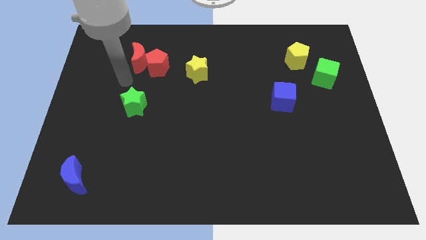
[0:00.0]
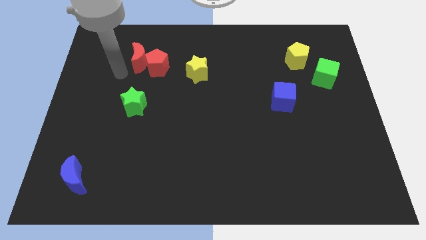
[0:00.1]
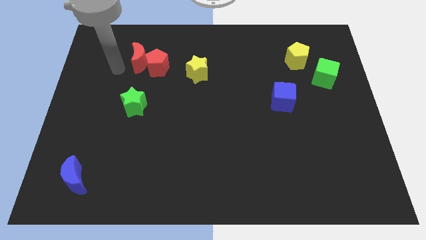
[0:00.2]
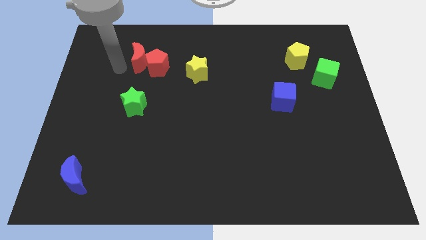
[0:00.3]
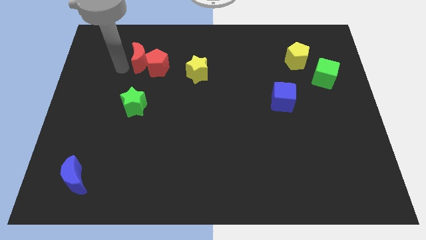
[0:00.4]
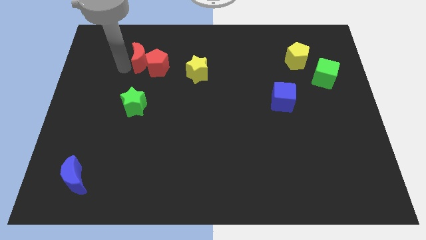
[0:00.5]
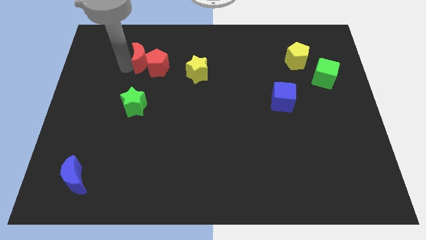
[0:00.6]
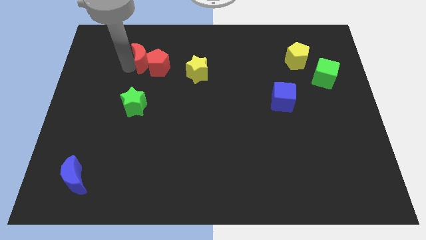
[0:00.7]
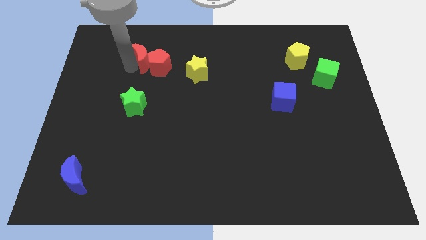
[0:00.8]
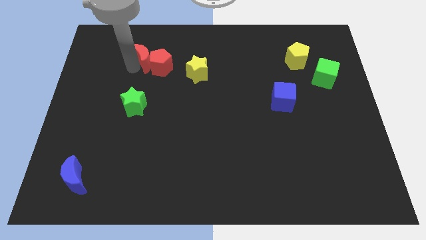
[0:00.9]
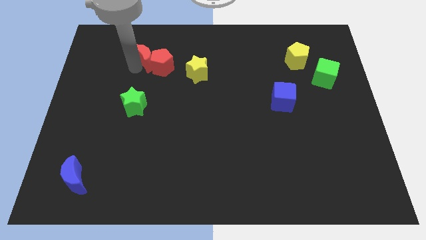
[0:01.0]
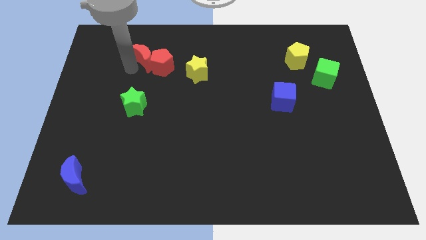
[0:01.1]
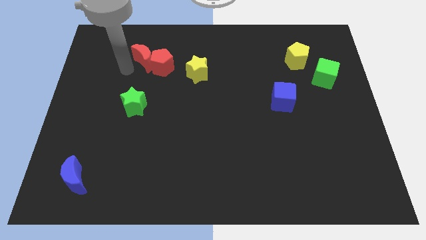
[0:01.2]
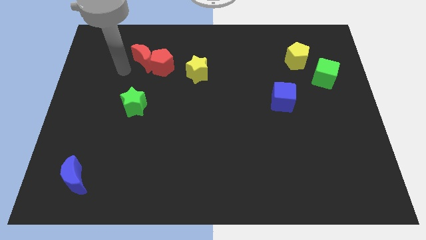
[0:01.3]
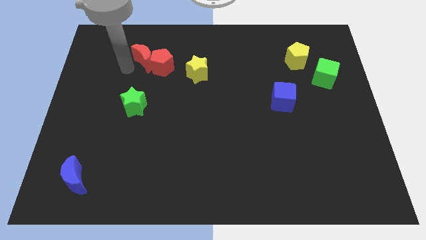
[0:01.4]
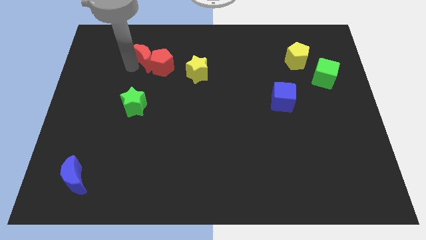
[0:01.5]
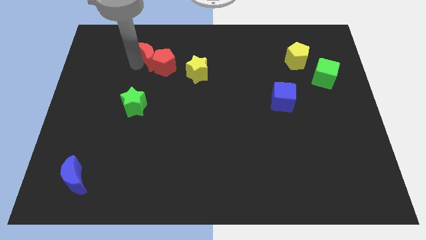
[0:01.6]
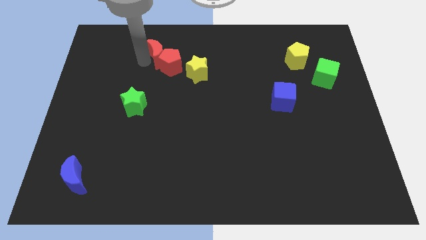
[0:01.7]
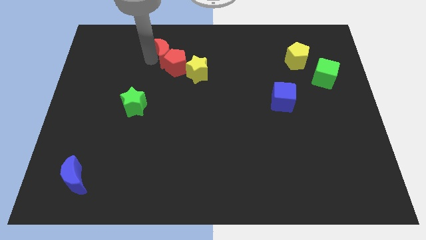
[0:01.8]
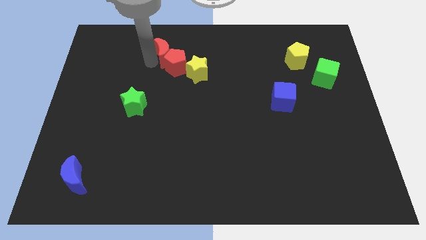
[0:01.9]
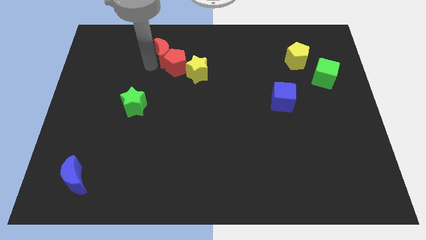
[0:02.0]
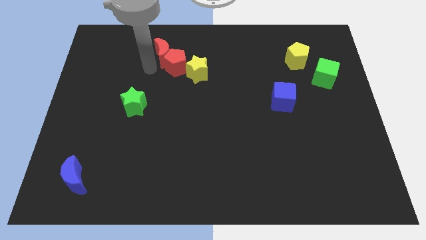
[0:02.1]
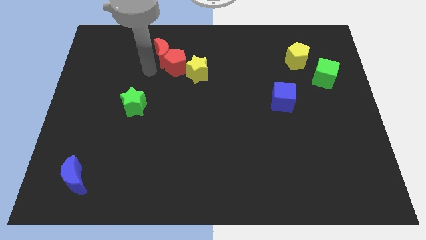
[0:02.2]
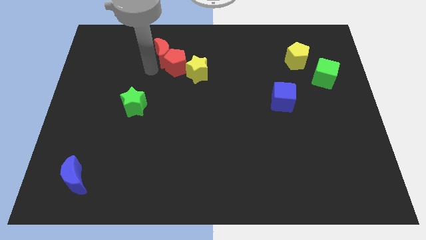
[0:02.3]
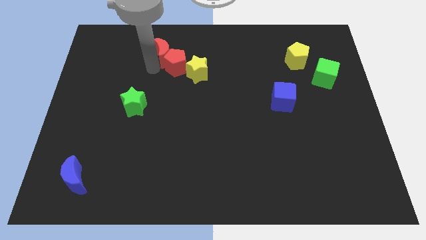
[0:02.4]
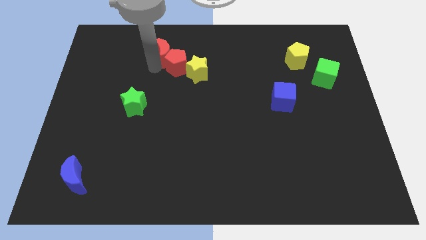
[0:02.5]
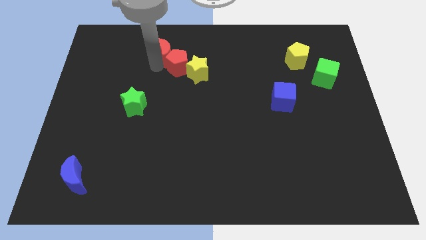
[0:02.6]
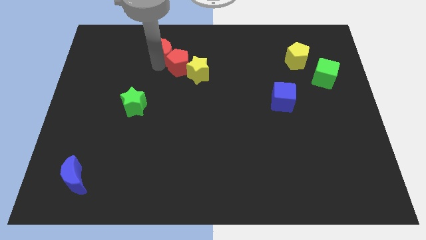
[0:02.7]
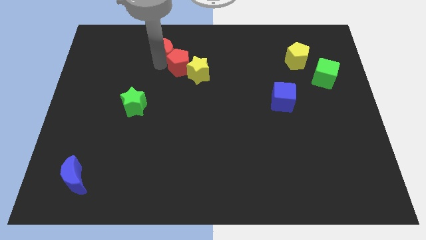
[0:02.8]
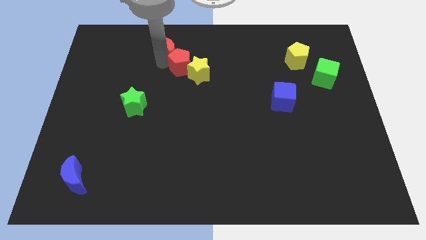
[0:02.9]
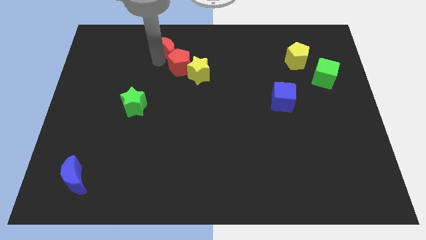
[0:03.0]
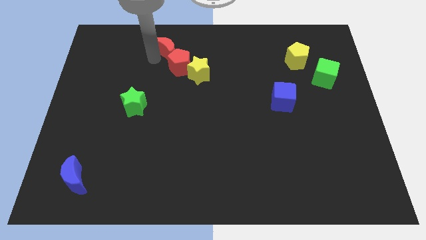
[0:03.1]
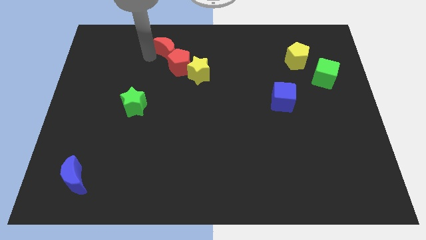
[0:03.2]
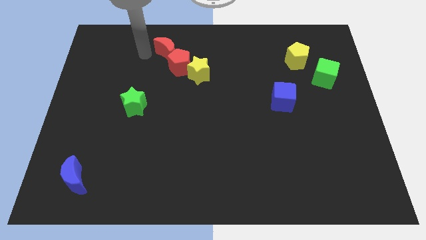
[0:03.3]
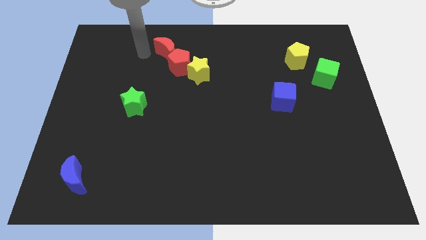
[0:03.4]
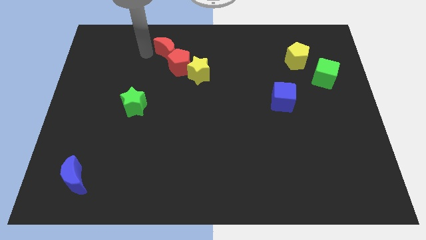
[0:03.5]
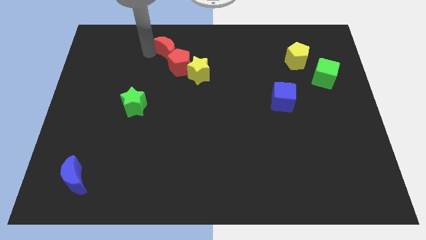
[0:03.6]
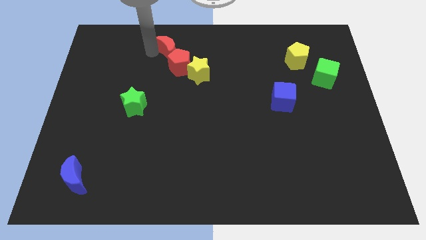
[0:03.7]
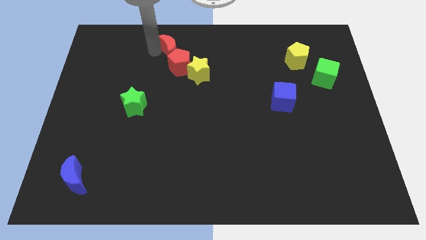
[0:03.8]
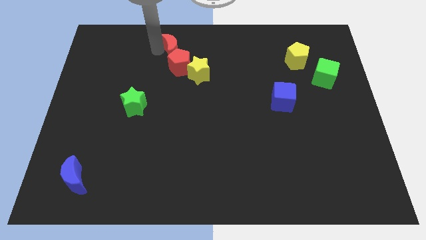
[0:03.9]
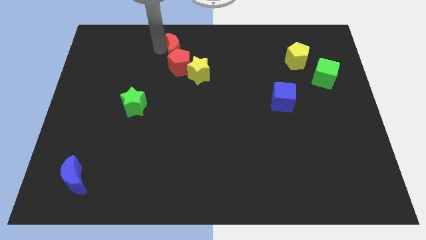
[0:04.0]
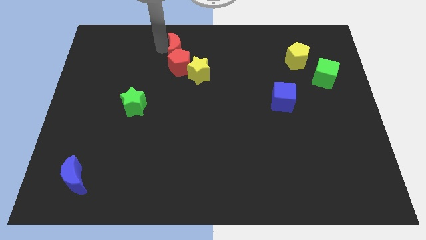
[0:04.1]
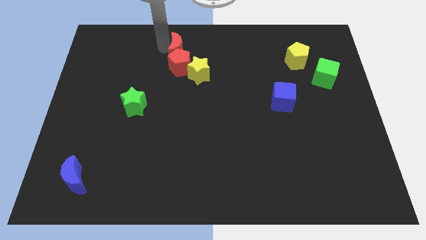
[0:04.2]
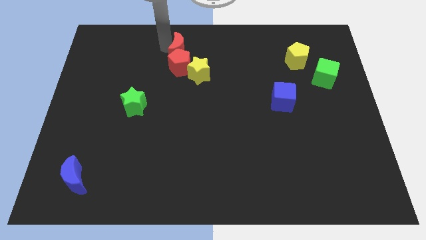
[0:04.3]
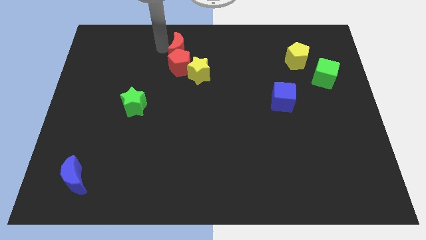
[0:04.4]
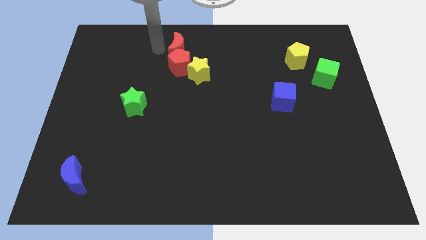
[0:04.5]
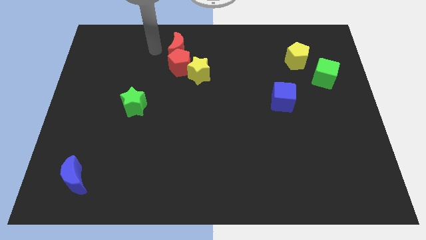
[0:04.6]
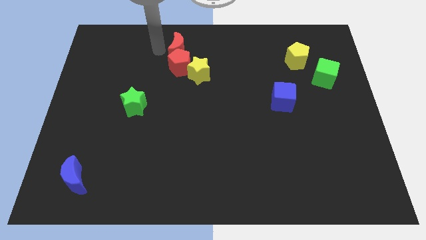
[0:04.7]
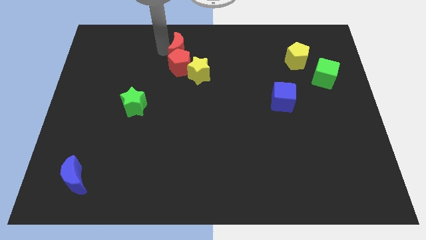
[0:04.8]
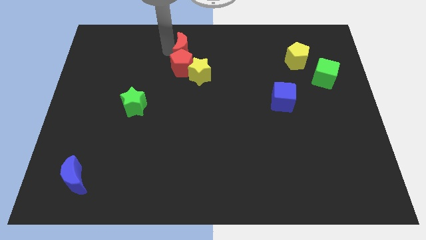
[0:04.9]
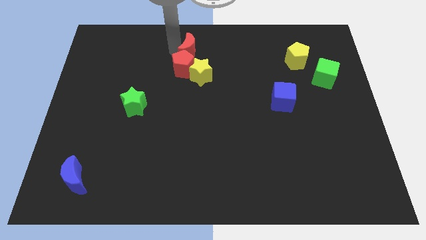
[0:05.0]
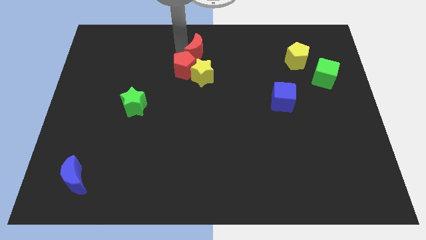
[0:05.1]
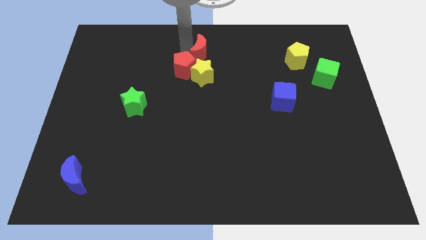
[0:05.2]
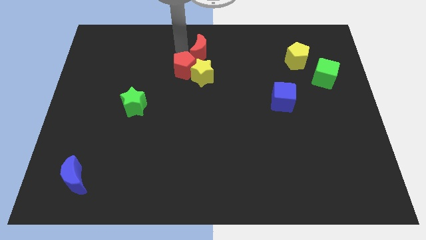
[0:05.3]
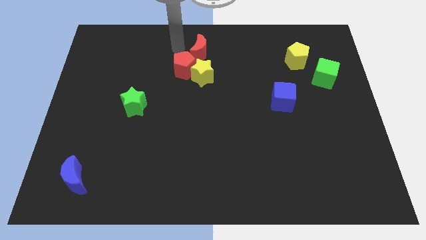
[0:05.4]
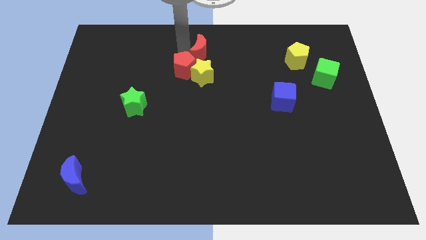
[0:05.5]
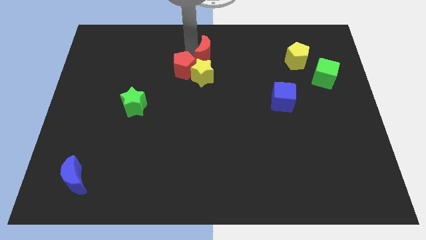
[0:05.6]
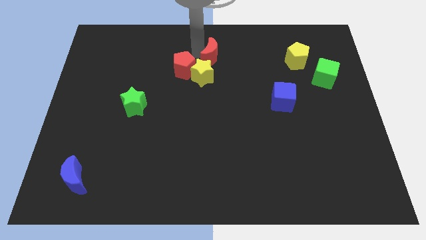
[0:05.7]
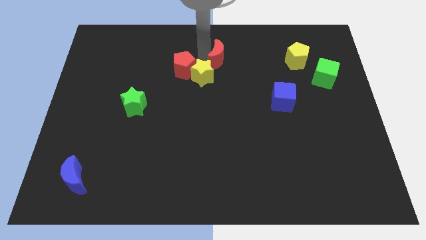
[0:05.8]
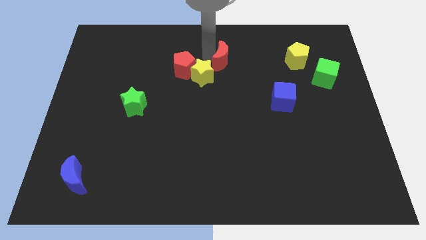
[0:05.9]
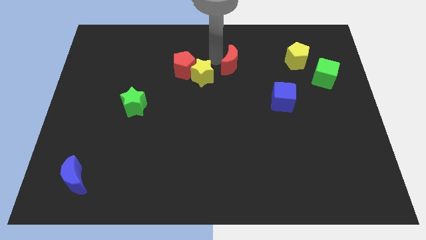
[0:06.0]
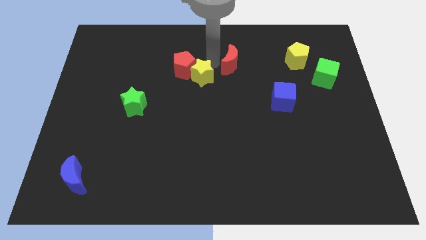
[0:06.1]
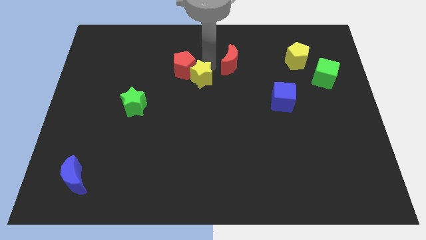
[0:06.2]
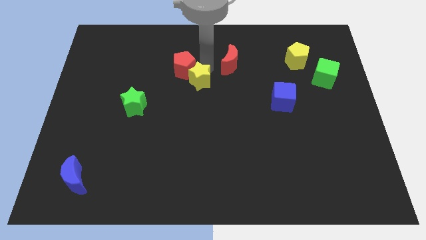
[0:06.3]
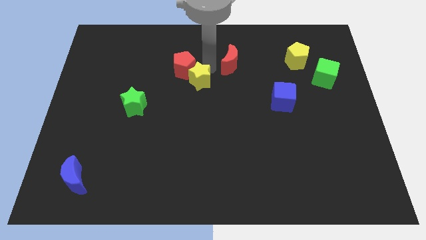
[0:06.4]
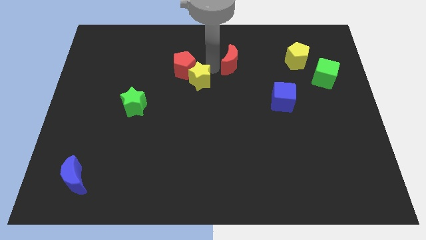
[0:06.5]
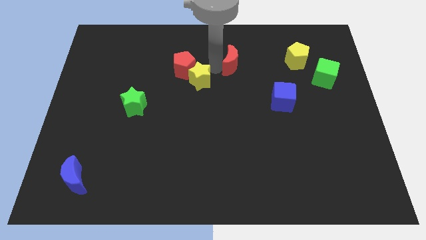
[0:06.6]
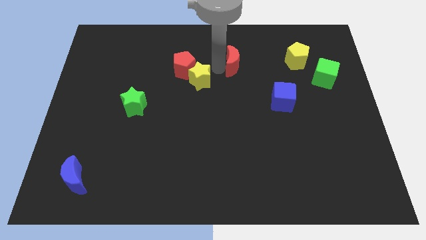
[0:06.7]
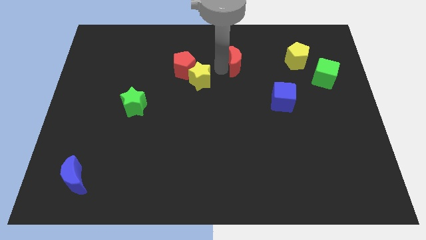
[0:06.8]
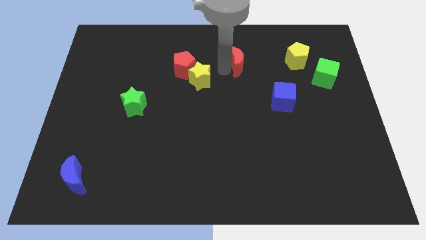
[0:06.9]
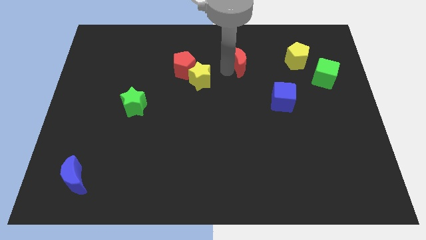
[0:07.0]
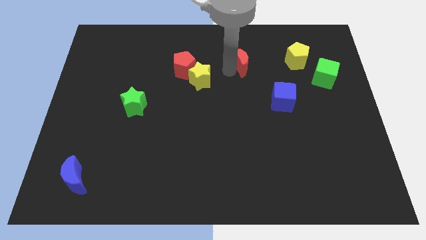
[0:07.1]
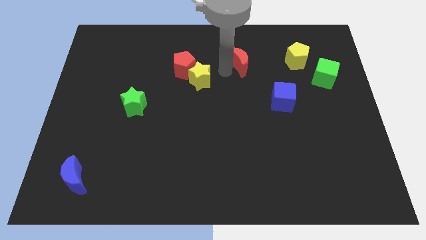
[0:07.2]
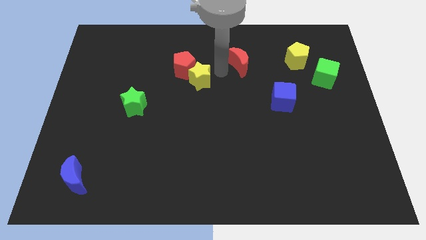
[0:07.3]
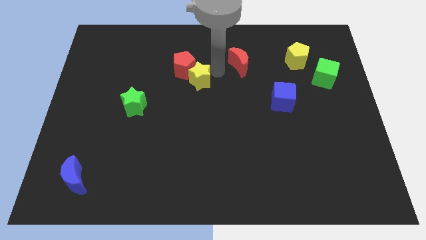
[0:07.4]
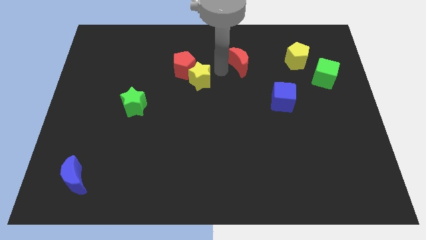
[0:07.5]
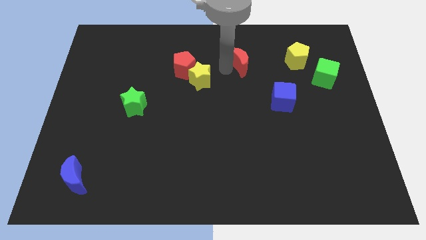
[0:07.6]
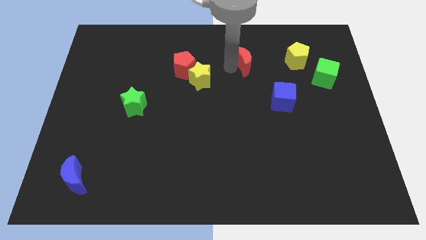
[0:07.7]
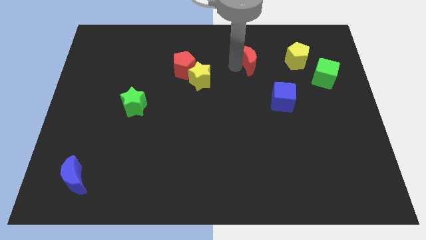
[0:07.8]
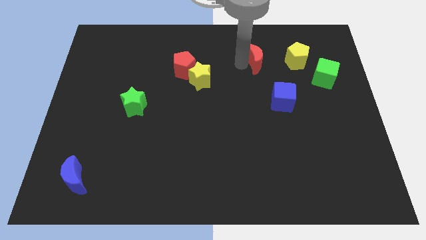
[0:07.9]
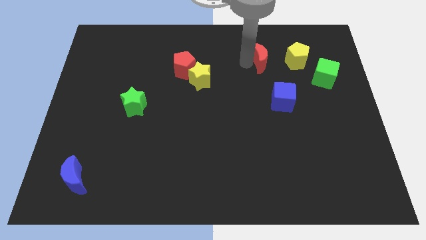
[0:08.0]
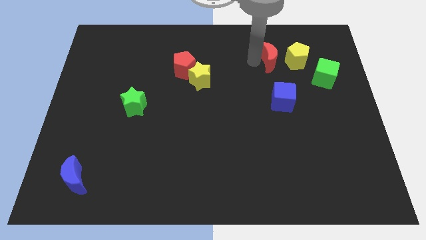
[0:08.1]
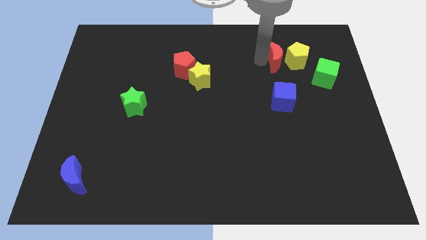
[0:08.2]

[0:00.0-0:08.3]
push the red moon to the yellow pentagon
